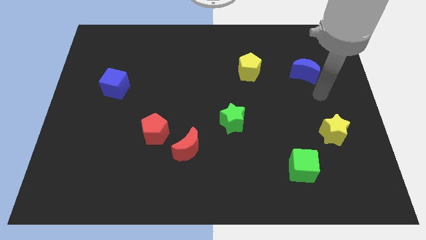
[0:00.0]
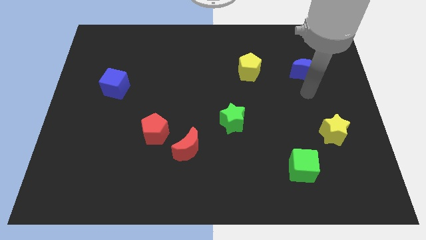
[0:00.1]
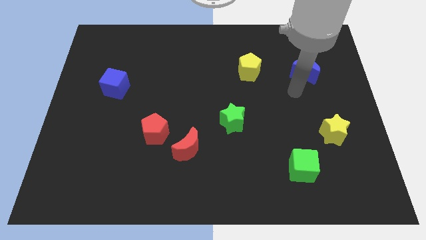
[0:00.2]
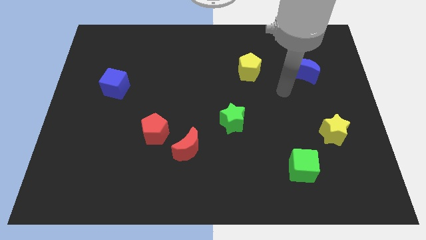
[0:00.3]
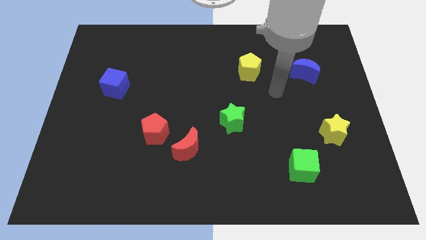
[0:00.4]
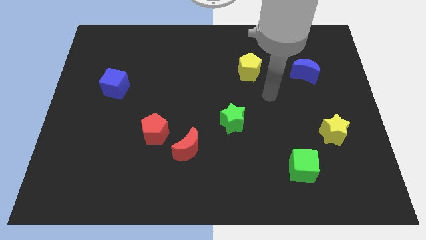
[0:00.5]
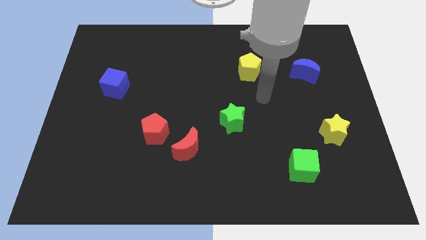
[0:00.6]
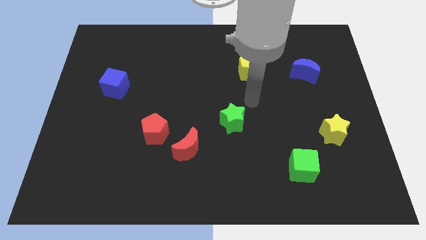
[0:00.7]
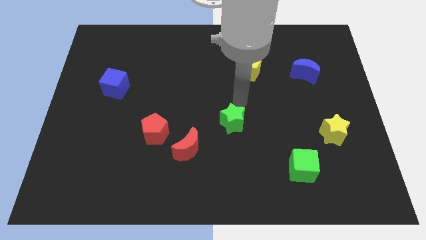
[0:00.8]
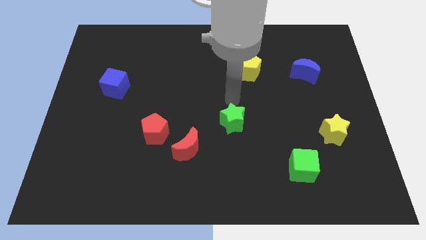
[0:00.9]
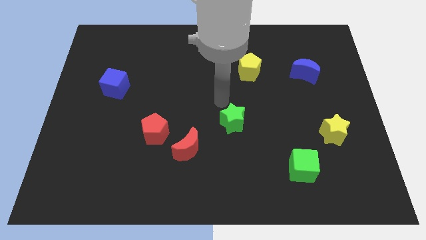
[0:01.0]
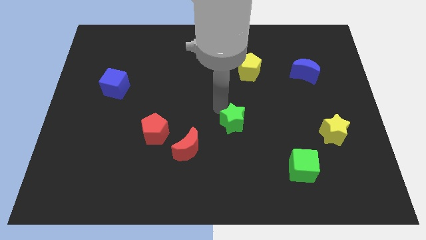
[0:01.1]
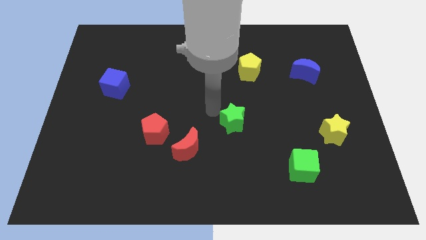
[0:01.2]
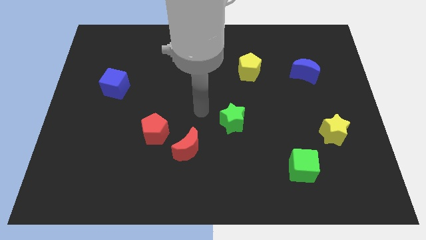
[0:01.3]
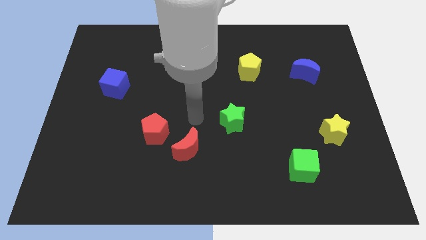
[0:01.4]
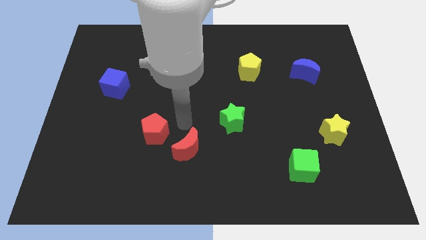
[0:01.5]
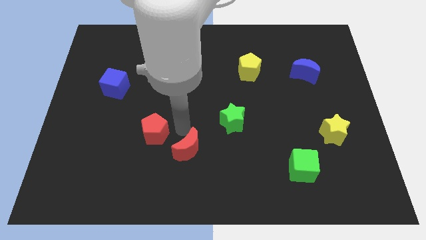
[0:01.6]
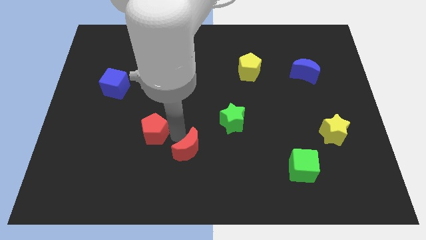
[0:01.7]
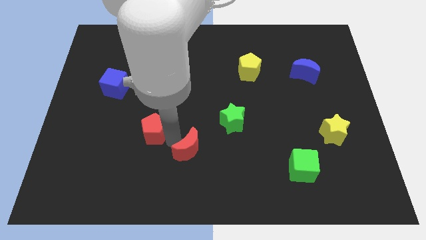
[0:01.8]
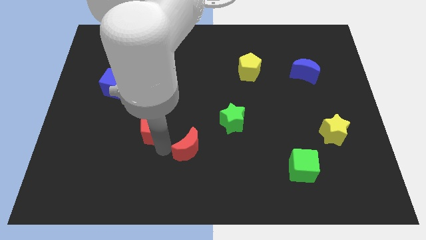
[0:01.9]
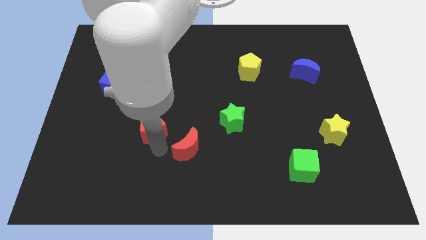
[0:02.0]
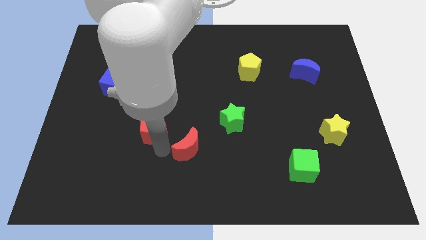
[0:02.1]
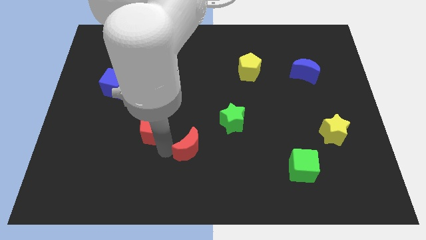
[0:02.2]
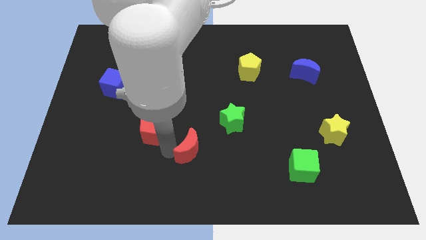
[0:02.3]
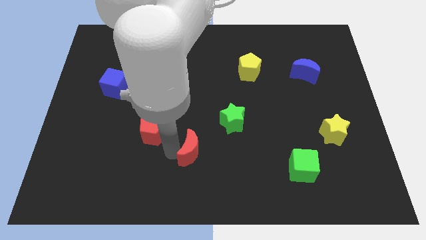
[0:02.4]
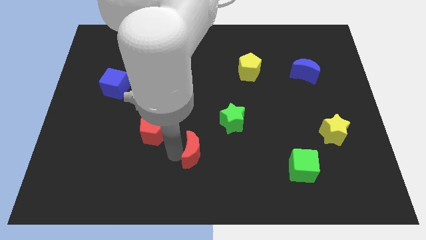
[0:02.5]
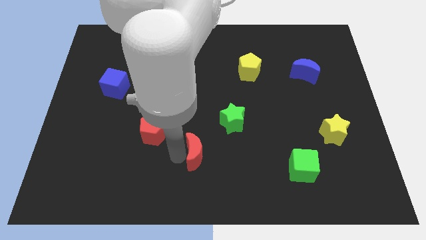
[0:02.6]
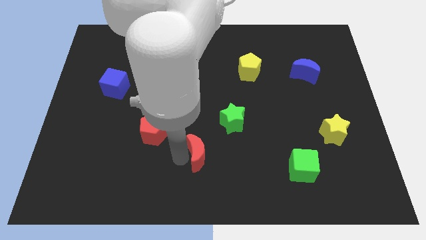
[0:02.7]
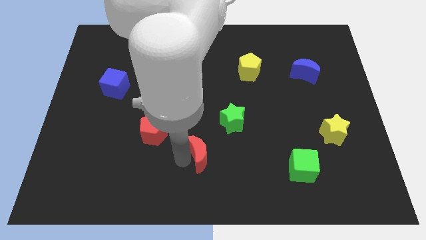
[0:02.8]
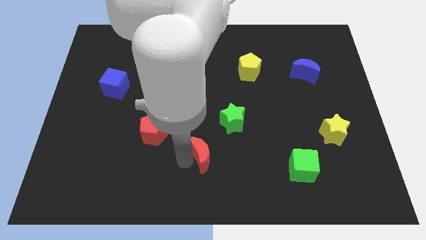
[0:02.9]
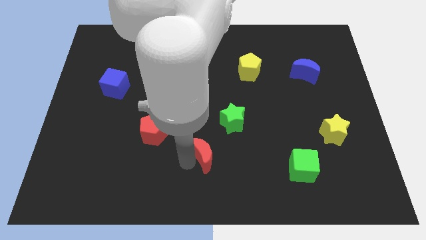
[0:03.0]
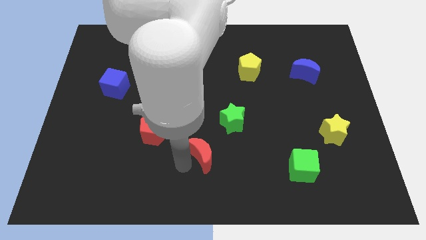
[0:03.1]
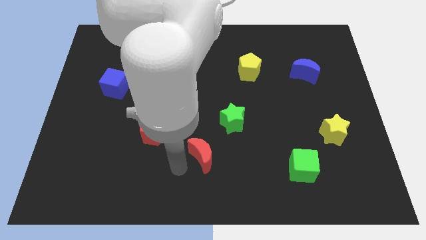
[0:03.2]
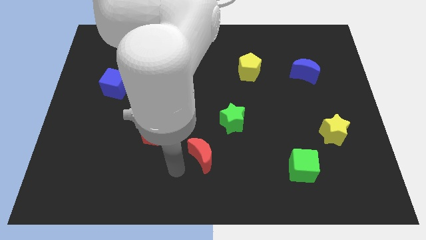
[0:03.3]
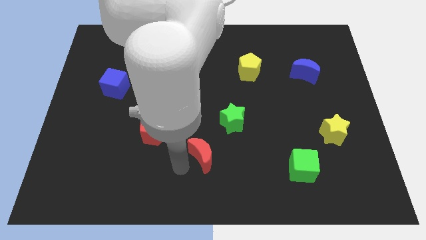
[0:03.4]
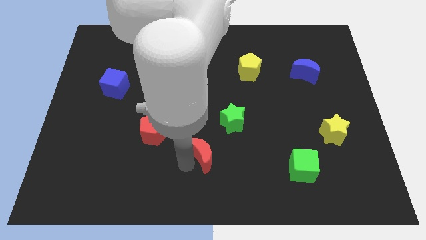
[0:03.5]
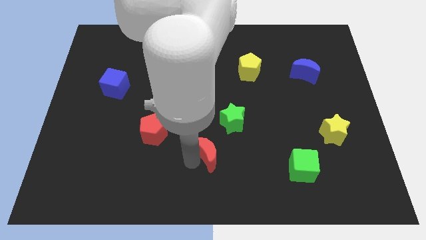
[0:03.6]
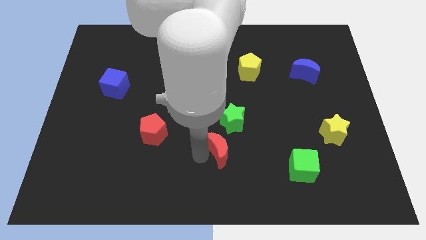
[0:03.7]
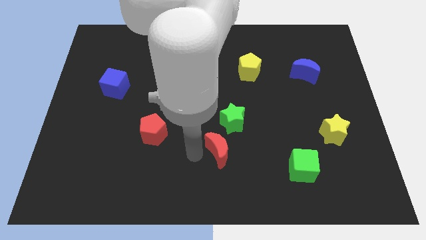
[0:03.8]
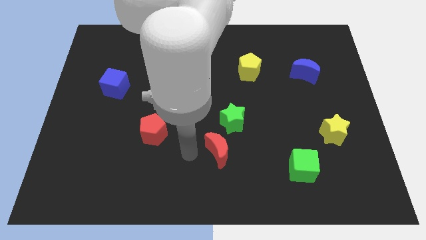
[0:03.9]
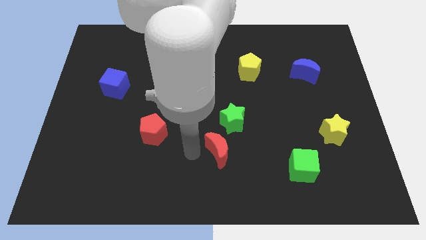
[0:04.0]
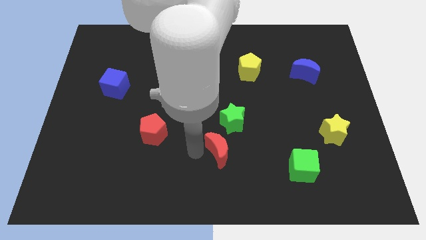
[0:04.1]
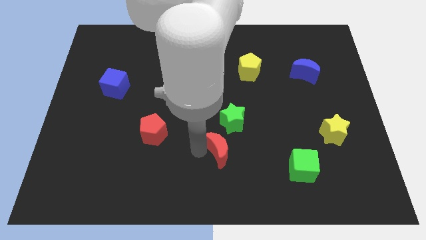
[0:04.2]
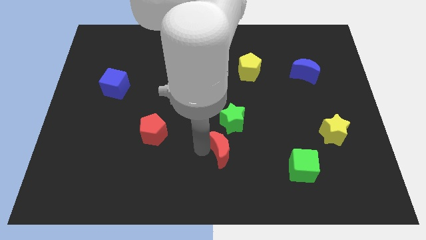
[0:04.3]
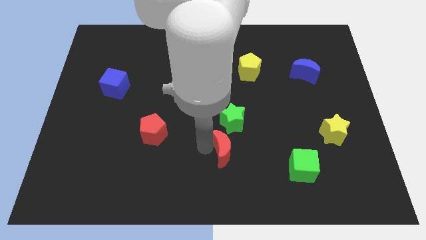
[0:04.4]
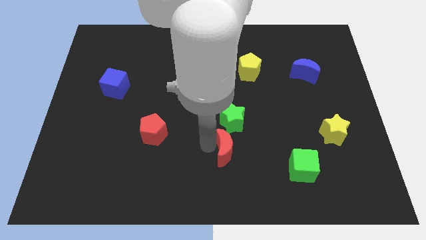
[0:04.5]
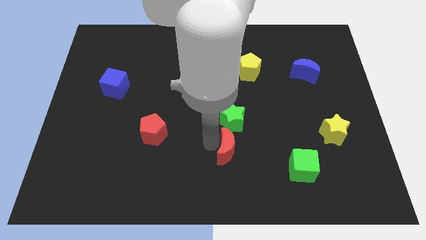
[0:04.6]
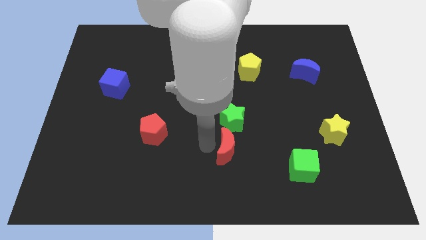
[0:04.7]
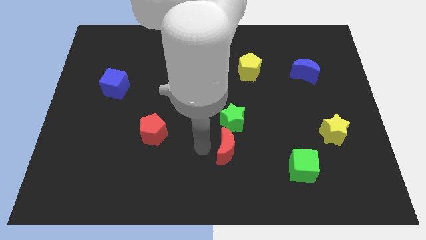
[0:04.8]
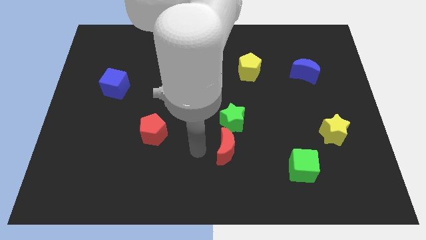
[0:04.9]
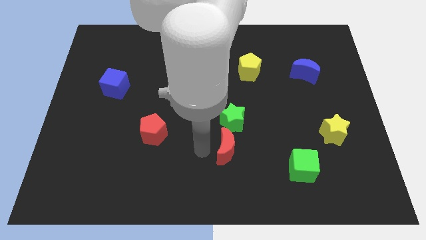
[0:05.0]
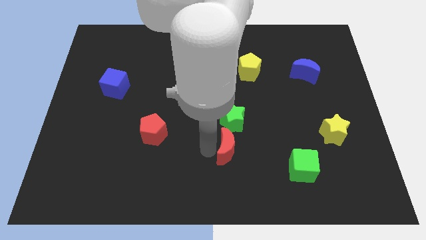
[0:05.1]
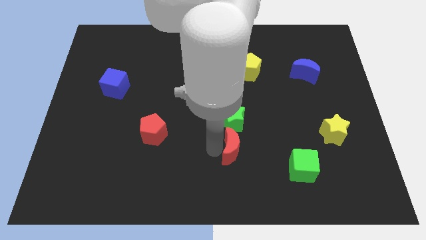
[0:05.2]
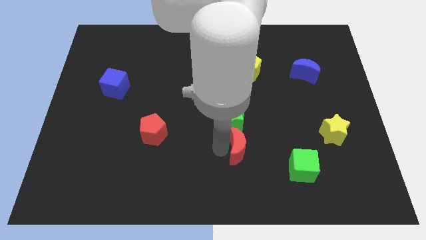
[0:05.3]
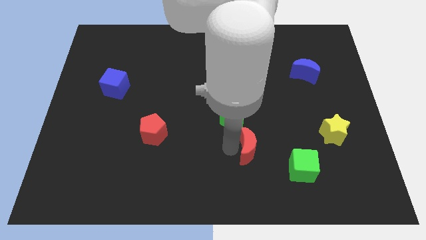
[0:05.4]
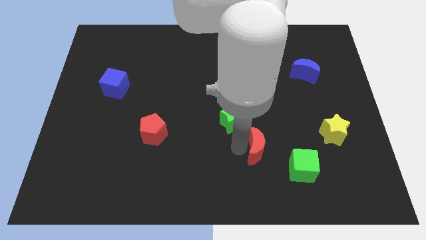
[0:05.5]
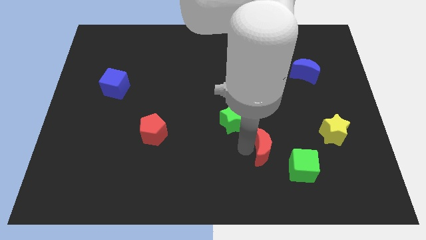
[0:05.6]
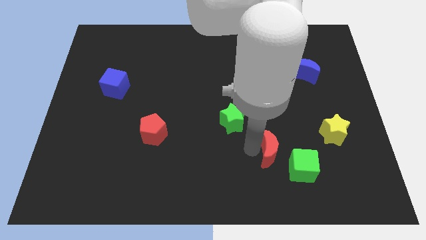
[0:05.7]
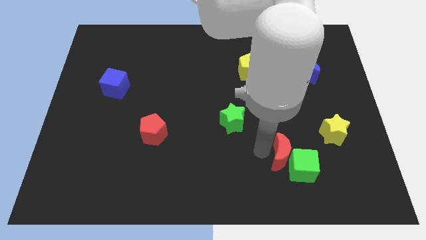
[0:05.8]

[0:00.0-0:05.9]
move the red moon right

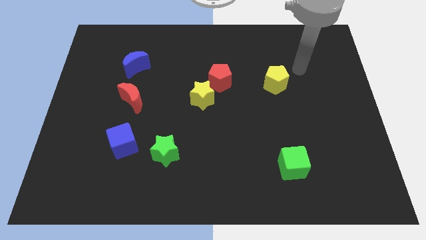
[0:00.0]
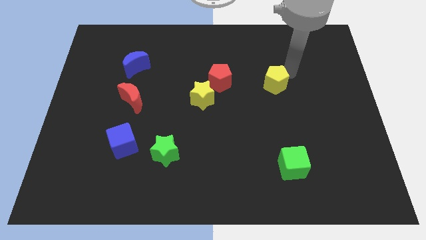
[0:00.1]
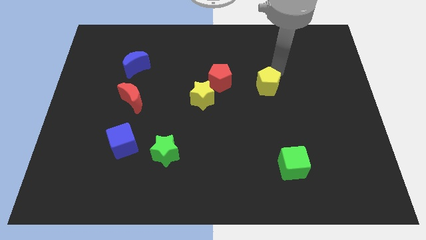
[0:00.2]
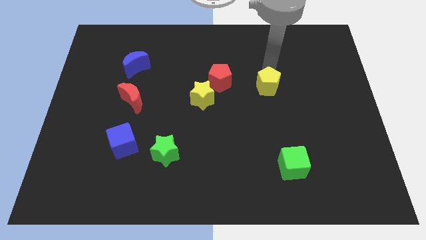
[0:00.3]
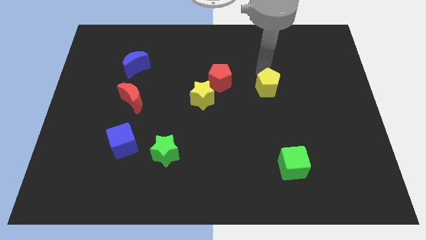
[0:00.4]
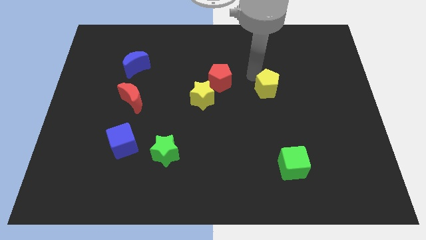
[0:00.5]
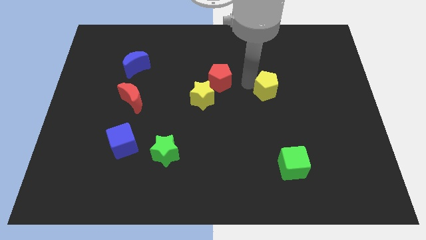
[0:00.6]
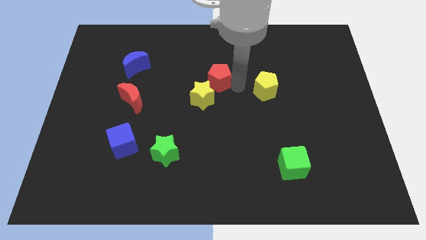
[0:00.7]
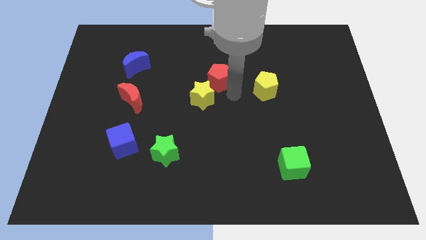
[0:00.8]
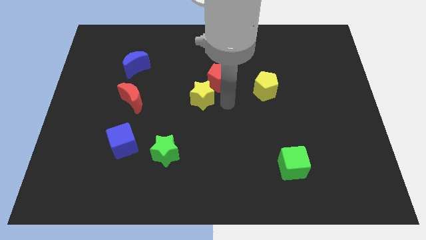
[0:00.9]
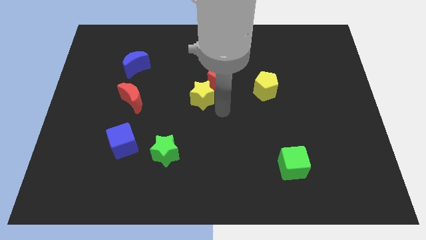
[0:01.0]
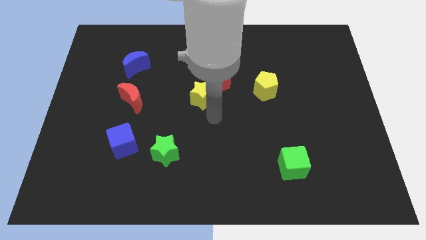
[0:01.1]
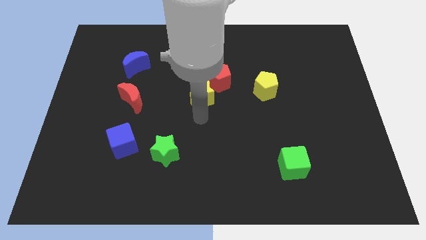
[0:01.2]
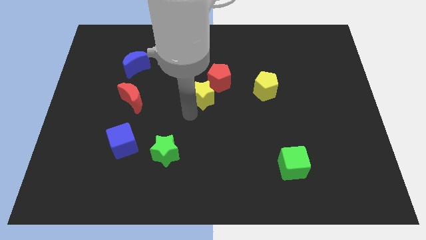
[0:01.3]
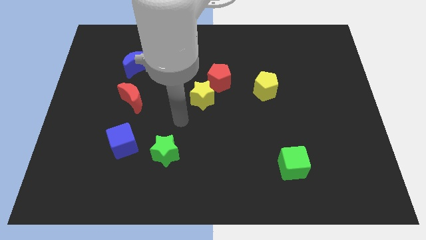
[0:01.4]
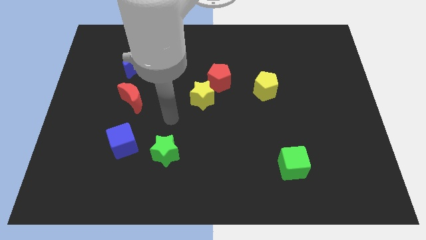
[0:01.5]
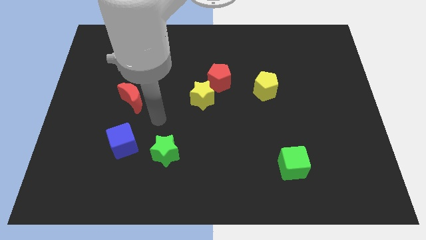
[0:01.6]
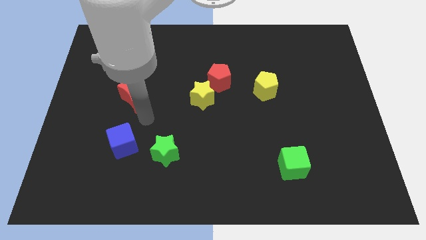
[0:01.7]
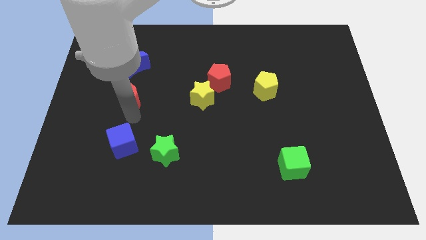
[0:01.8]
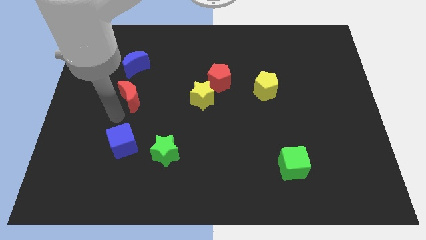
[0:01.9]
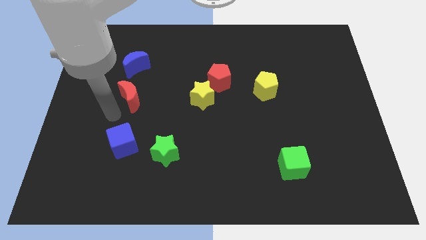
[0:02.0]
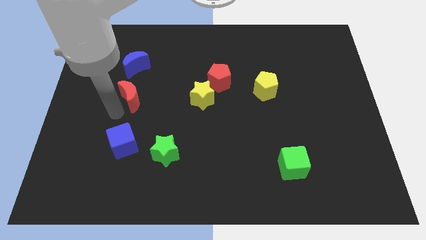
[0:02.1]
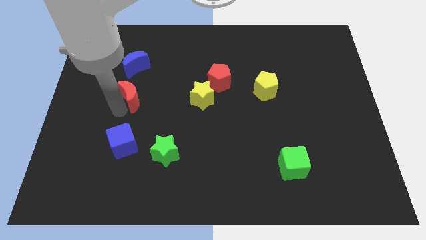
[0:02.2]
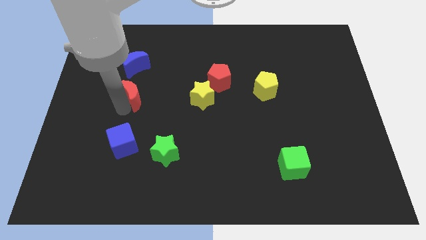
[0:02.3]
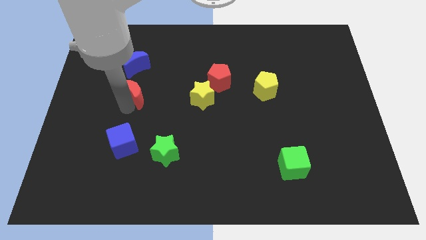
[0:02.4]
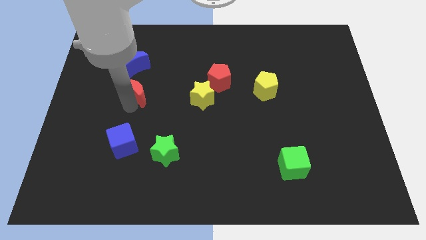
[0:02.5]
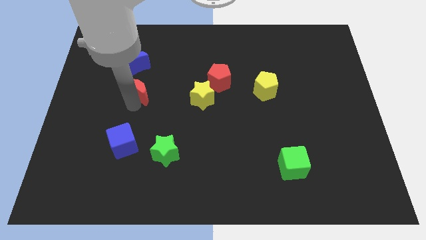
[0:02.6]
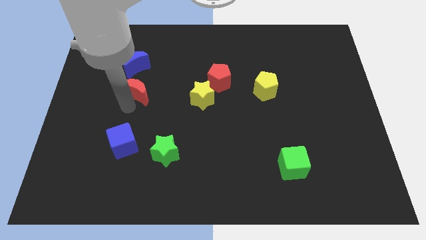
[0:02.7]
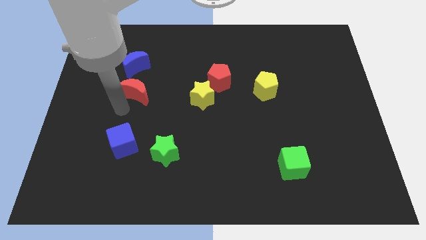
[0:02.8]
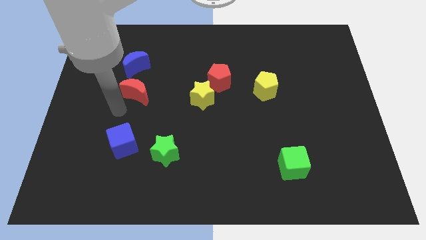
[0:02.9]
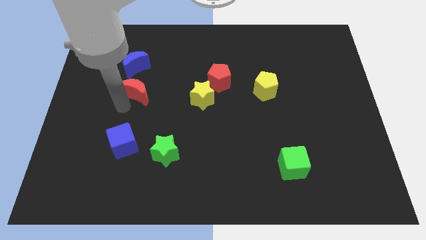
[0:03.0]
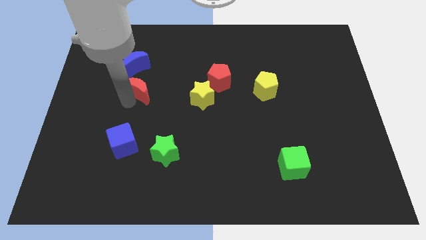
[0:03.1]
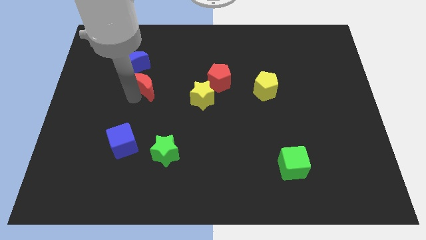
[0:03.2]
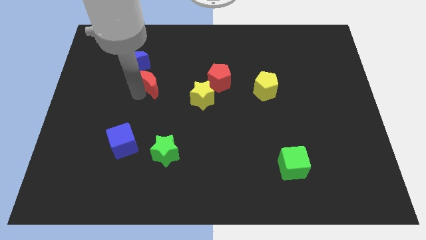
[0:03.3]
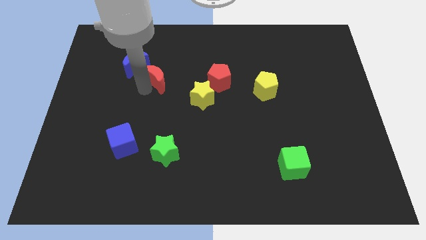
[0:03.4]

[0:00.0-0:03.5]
slide the red moon upwards and right diagonally slightly
